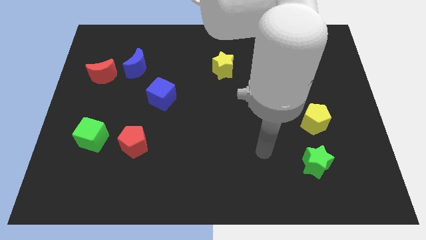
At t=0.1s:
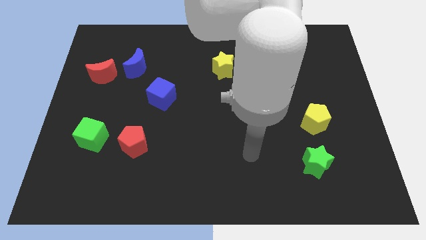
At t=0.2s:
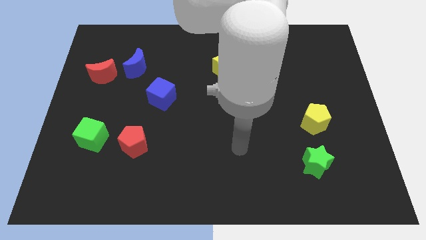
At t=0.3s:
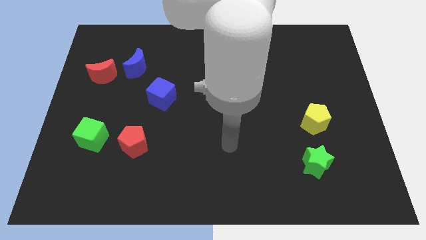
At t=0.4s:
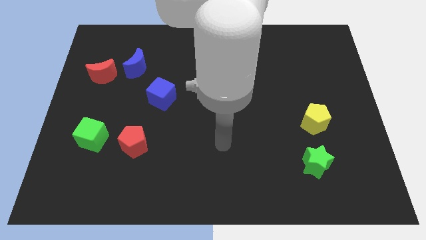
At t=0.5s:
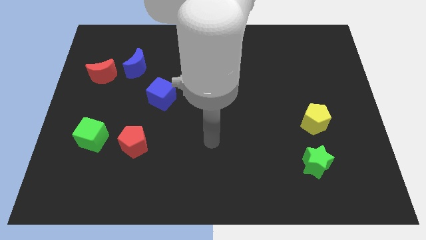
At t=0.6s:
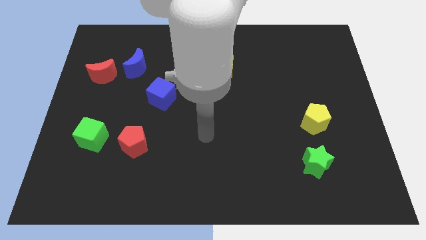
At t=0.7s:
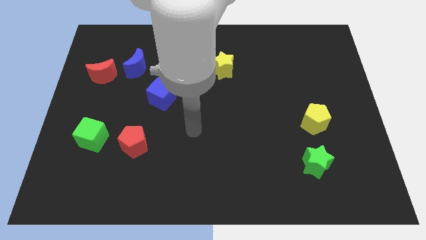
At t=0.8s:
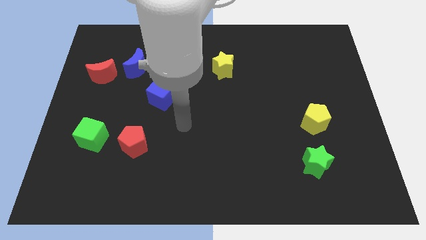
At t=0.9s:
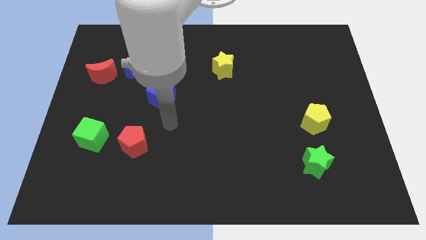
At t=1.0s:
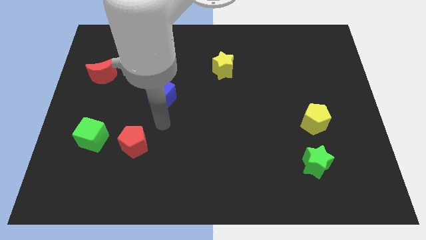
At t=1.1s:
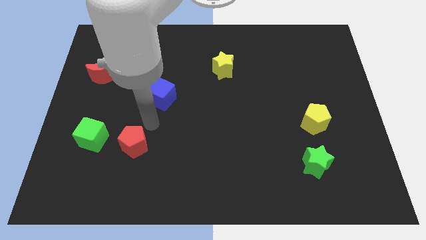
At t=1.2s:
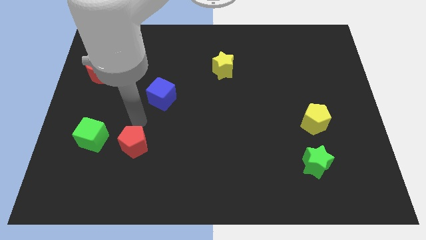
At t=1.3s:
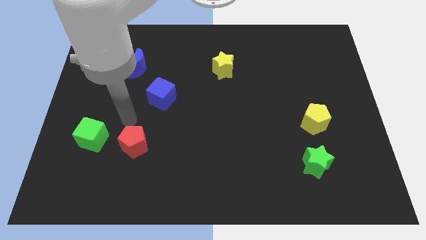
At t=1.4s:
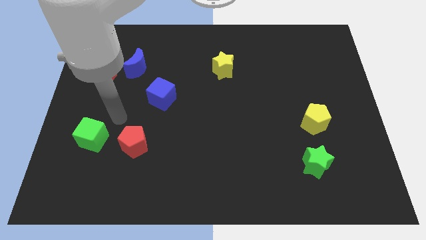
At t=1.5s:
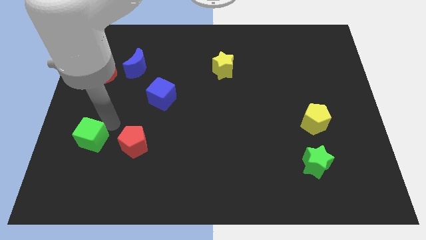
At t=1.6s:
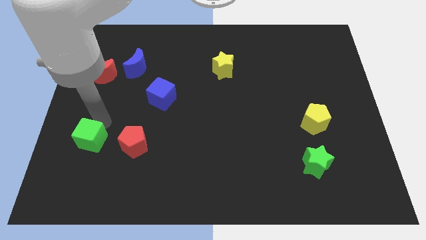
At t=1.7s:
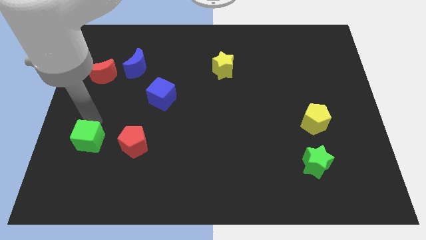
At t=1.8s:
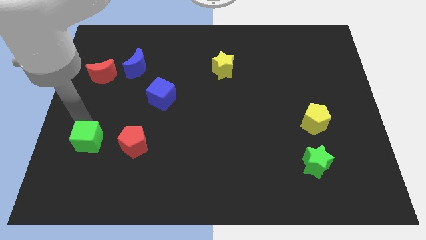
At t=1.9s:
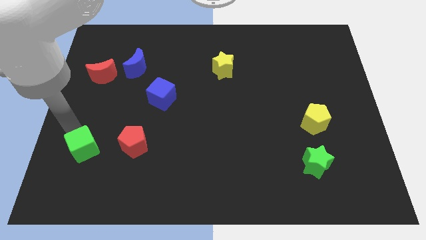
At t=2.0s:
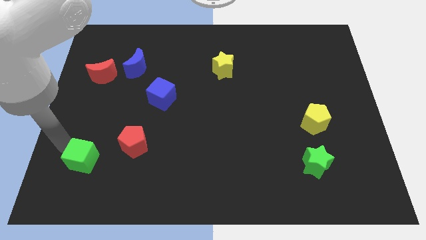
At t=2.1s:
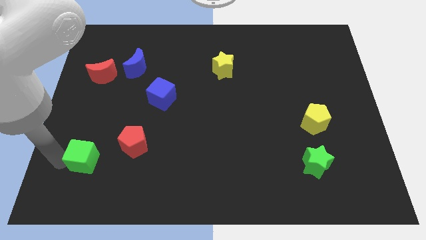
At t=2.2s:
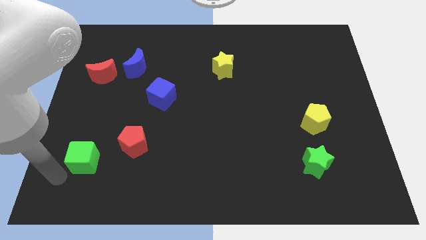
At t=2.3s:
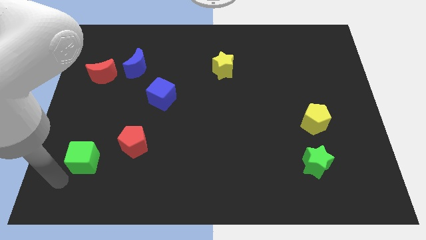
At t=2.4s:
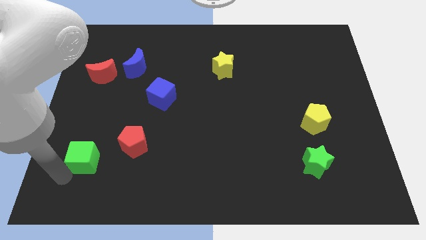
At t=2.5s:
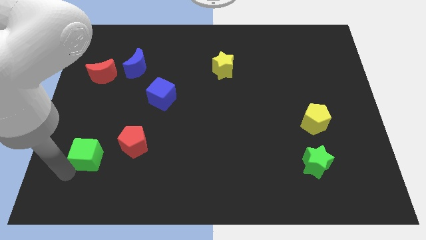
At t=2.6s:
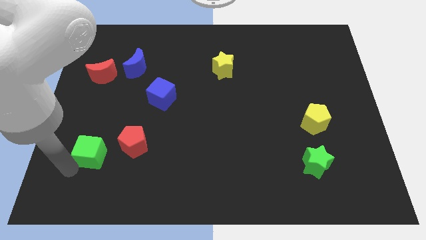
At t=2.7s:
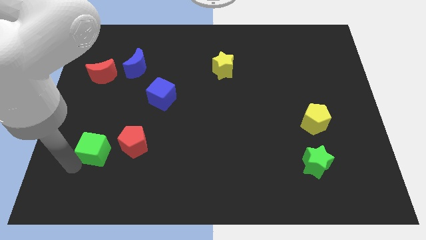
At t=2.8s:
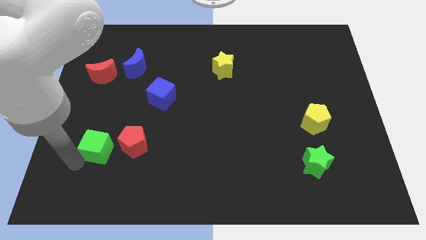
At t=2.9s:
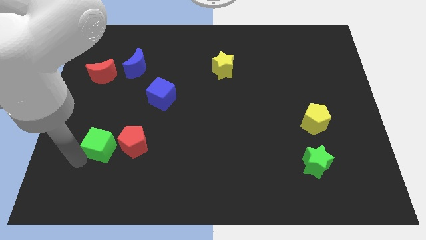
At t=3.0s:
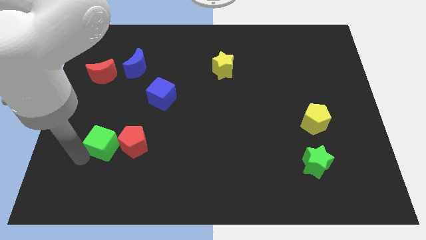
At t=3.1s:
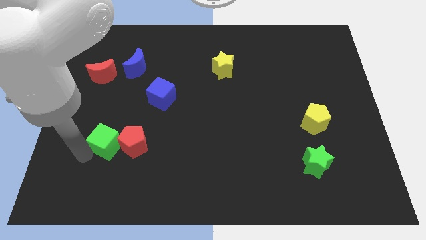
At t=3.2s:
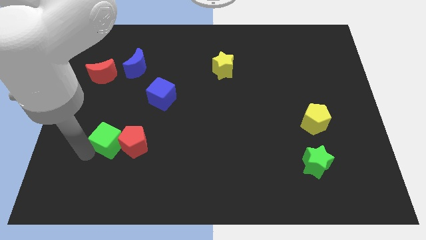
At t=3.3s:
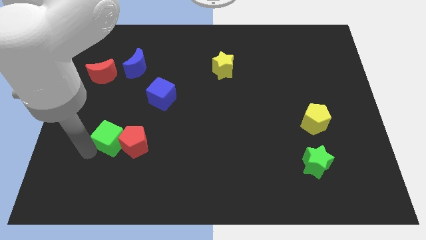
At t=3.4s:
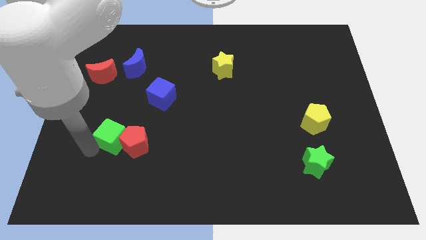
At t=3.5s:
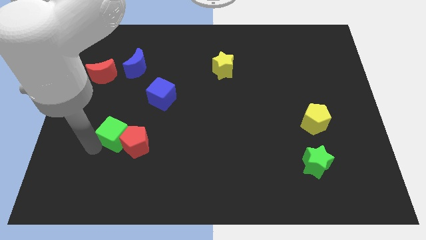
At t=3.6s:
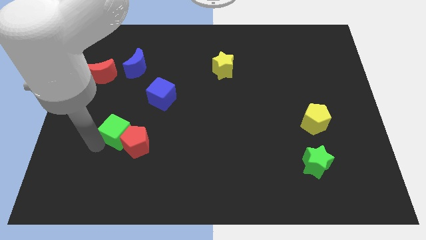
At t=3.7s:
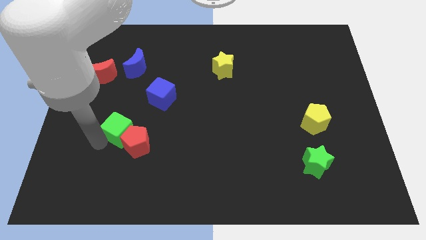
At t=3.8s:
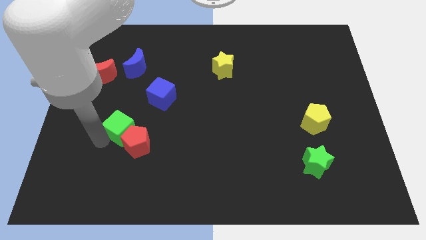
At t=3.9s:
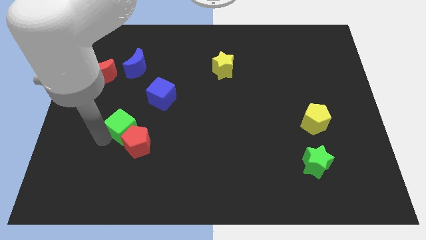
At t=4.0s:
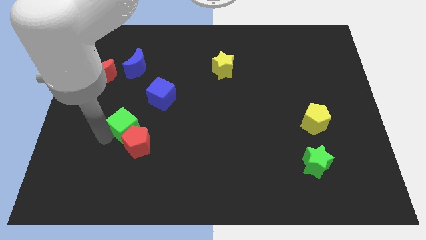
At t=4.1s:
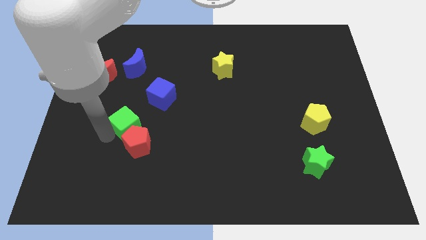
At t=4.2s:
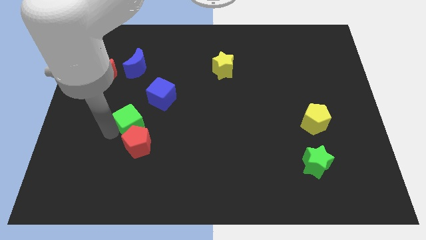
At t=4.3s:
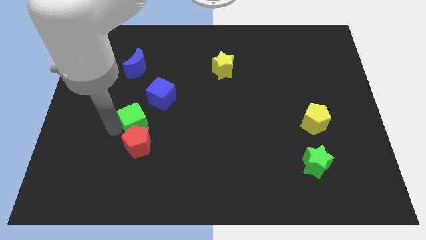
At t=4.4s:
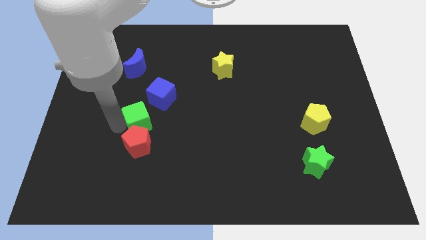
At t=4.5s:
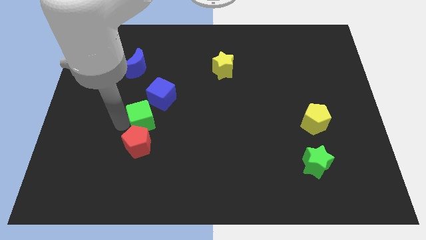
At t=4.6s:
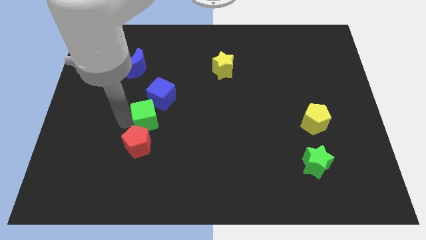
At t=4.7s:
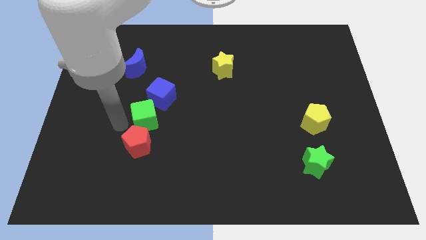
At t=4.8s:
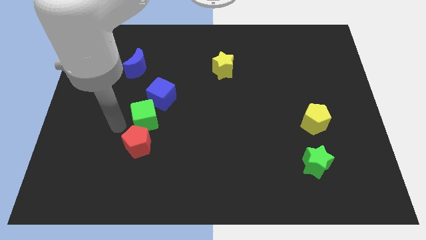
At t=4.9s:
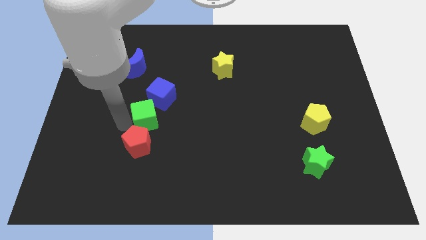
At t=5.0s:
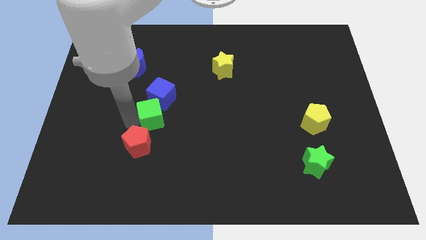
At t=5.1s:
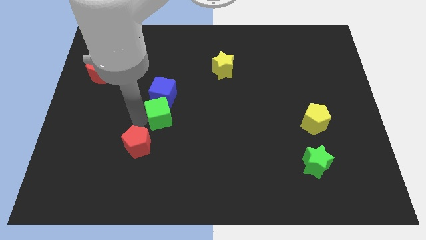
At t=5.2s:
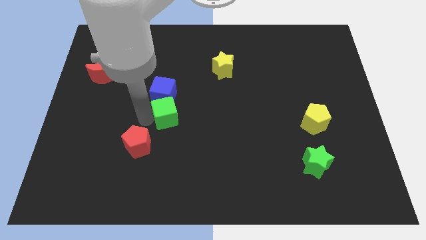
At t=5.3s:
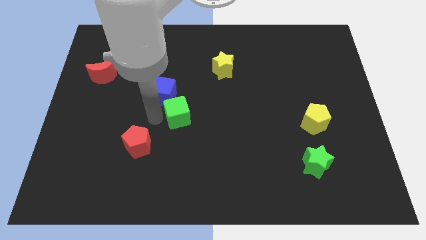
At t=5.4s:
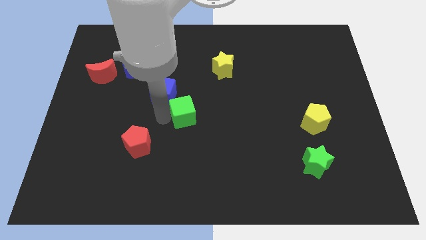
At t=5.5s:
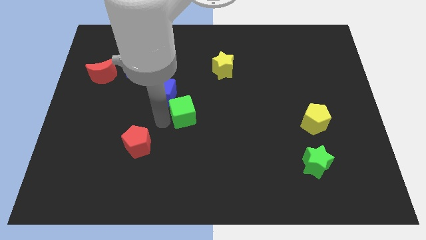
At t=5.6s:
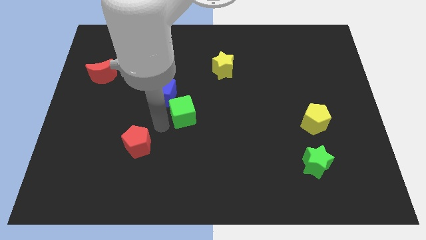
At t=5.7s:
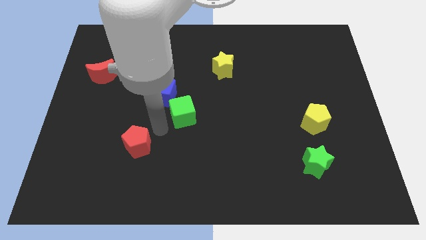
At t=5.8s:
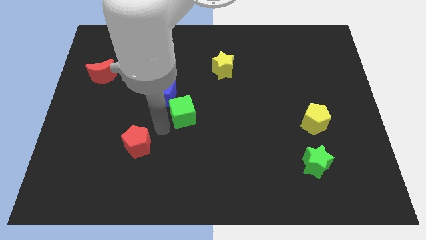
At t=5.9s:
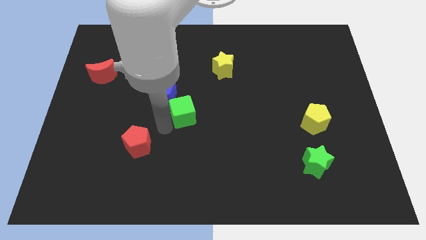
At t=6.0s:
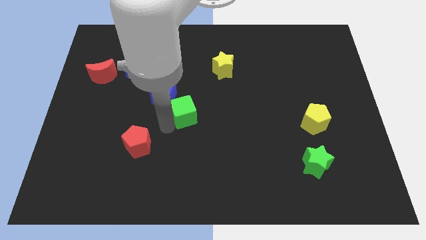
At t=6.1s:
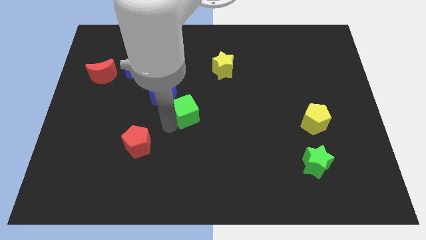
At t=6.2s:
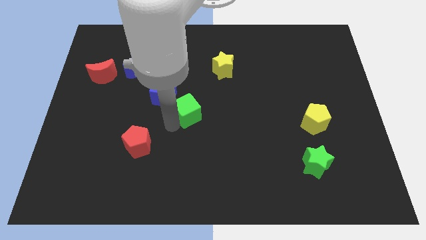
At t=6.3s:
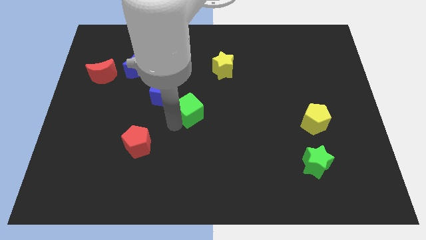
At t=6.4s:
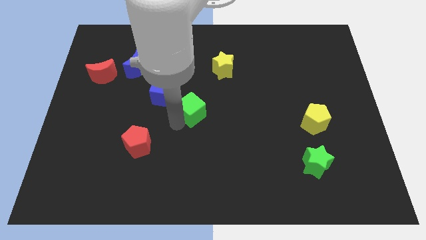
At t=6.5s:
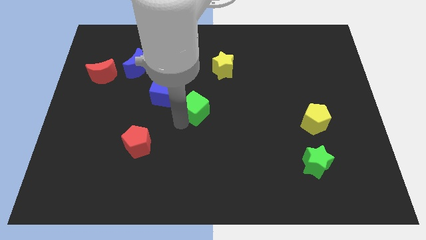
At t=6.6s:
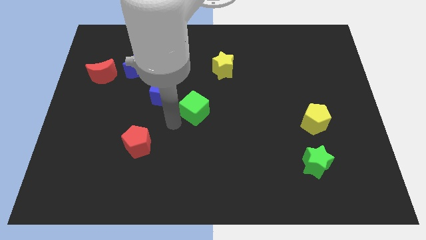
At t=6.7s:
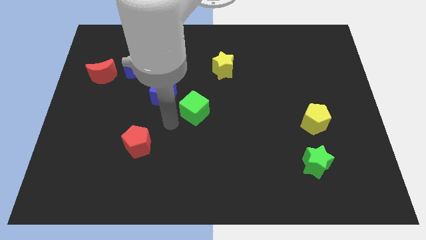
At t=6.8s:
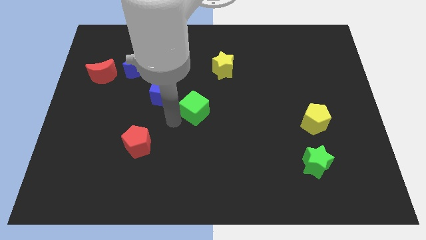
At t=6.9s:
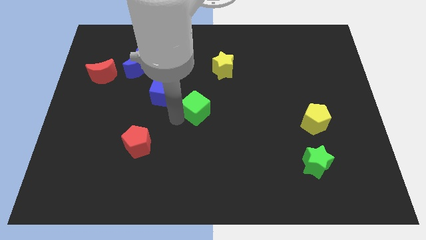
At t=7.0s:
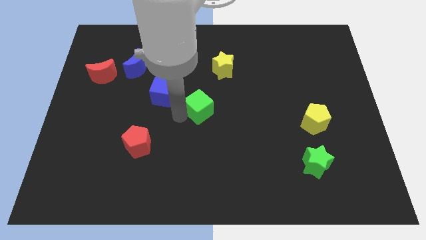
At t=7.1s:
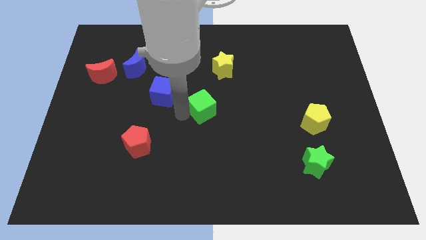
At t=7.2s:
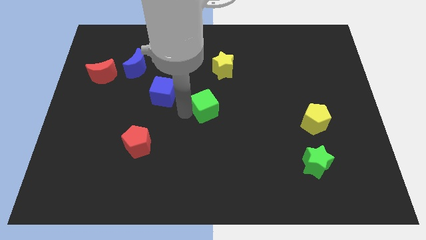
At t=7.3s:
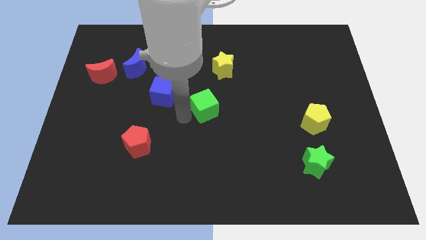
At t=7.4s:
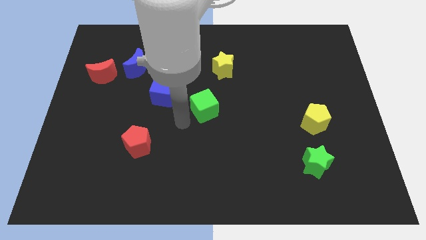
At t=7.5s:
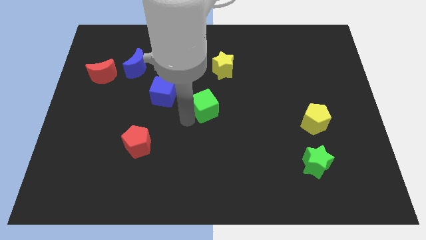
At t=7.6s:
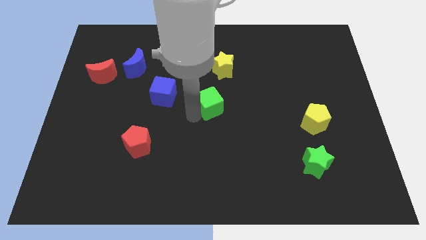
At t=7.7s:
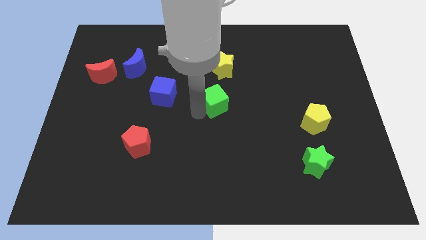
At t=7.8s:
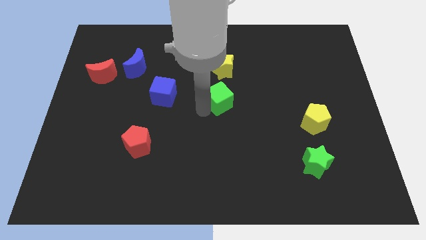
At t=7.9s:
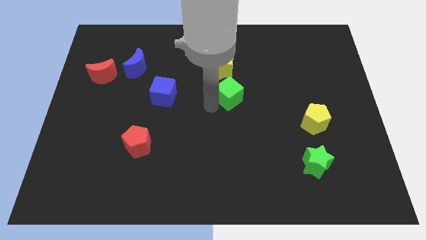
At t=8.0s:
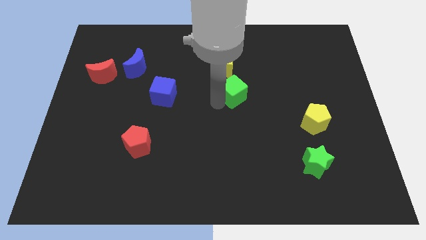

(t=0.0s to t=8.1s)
move the green cube to the bottom right of the yellow star
